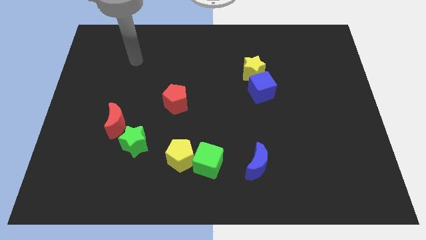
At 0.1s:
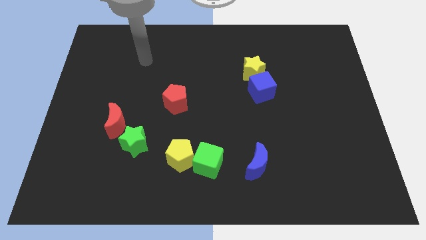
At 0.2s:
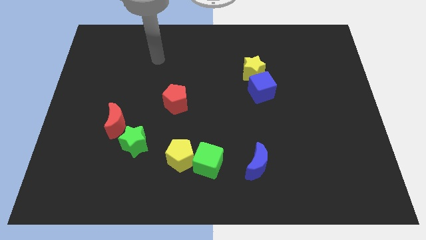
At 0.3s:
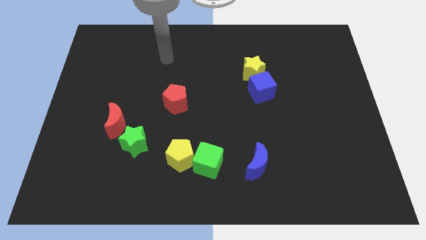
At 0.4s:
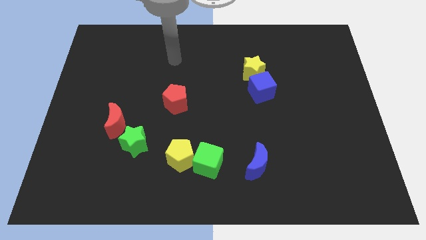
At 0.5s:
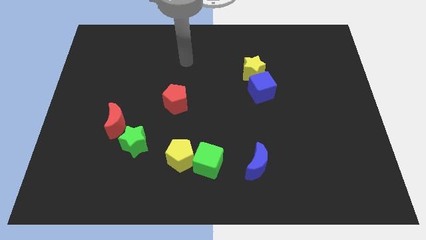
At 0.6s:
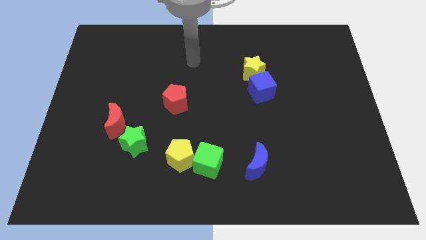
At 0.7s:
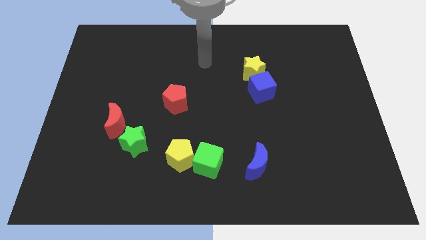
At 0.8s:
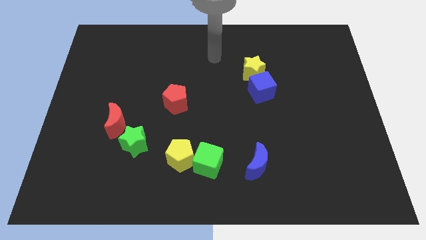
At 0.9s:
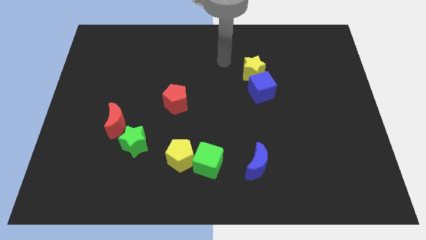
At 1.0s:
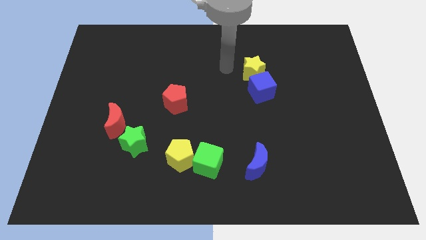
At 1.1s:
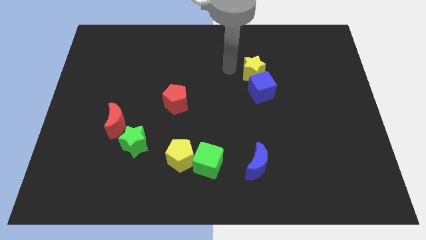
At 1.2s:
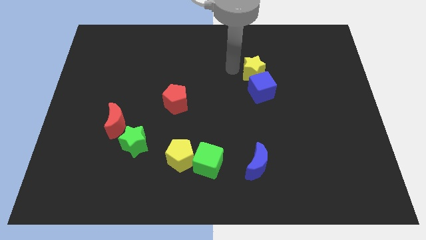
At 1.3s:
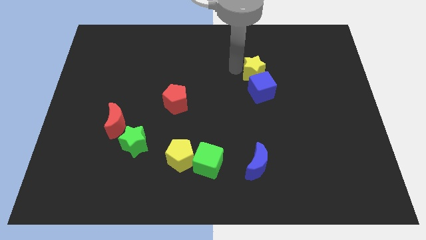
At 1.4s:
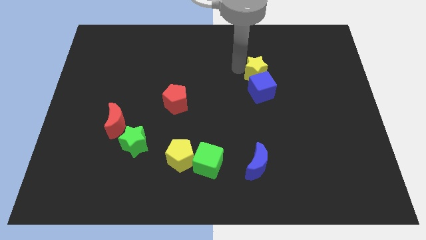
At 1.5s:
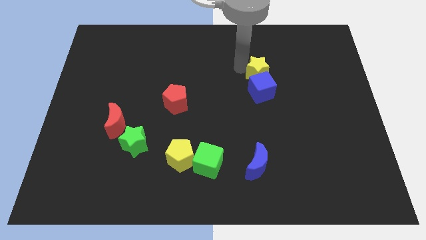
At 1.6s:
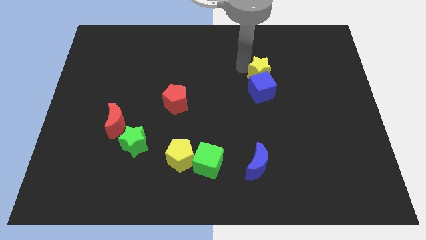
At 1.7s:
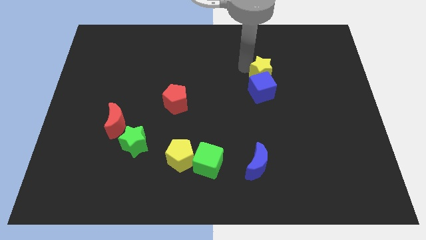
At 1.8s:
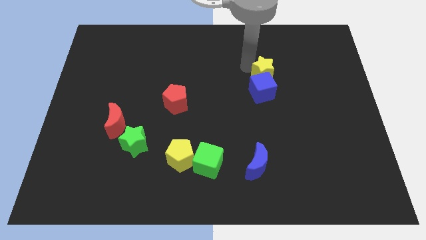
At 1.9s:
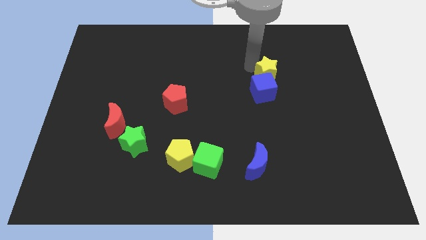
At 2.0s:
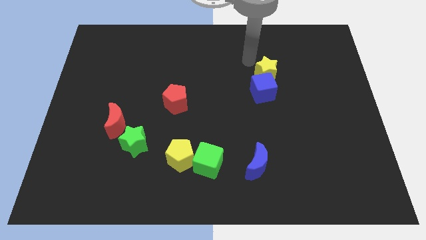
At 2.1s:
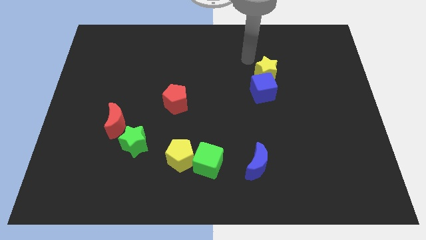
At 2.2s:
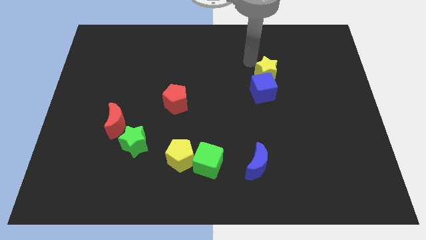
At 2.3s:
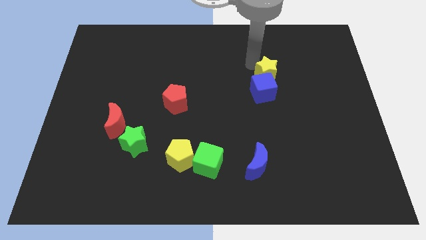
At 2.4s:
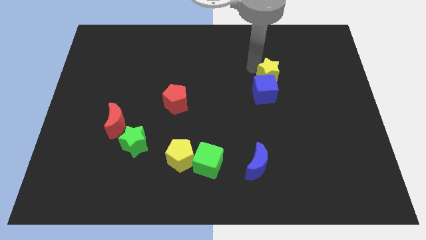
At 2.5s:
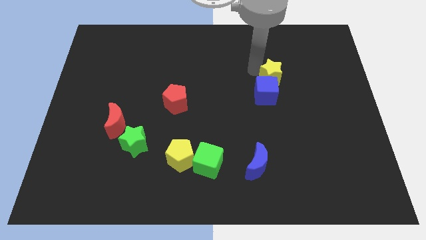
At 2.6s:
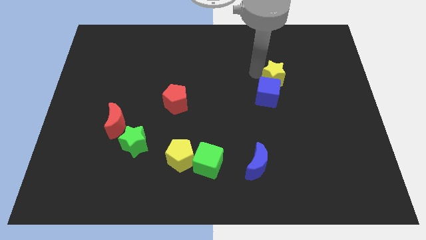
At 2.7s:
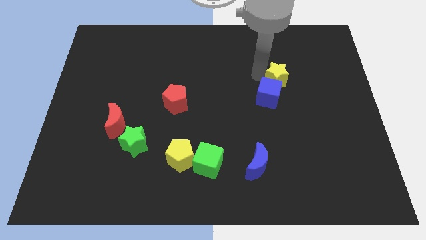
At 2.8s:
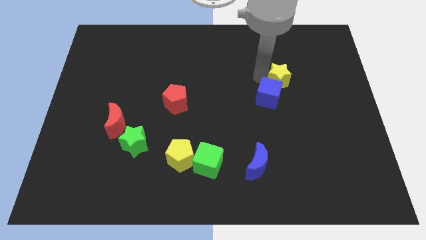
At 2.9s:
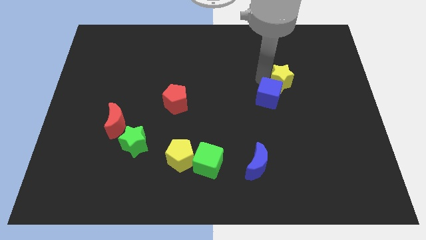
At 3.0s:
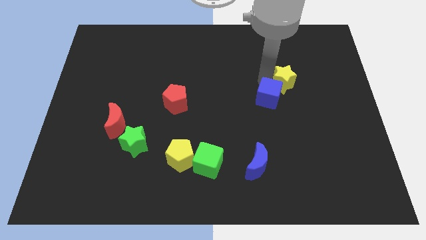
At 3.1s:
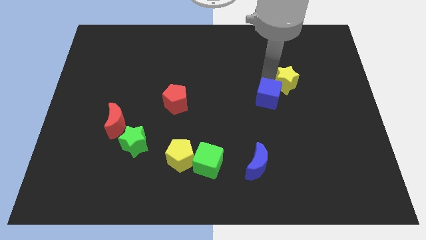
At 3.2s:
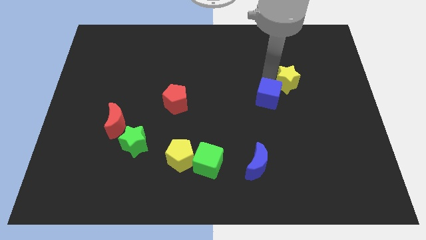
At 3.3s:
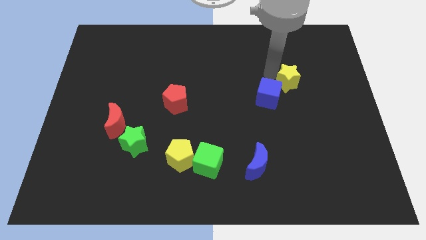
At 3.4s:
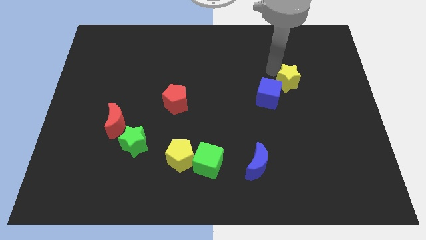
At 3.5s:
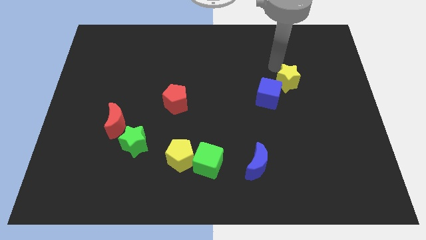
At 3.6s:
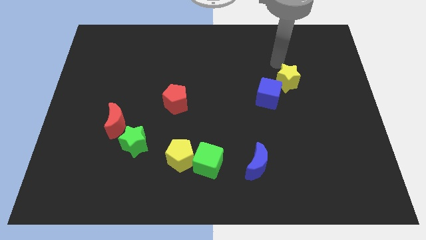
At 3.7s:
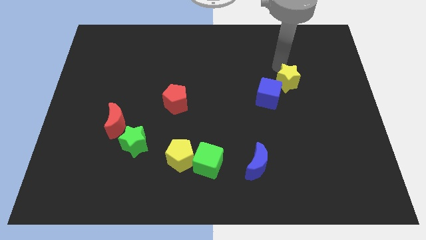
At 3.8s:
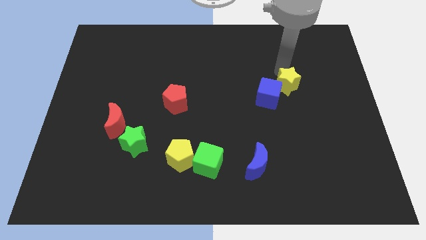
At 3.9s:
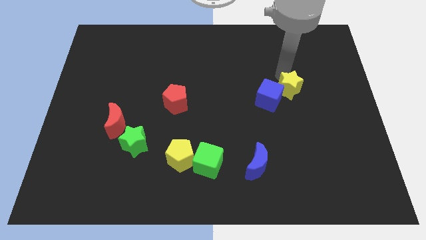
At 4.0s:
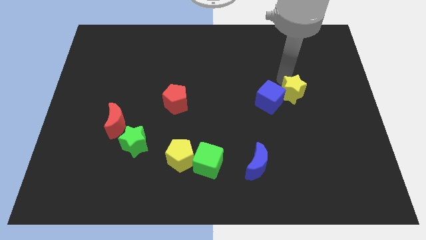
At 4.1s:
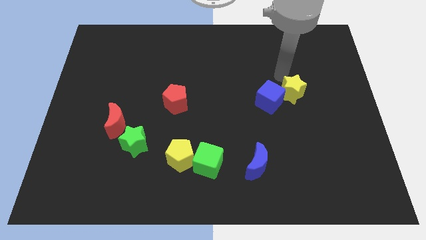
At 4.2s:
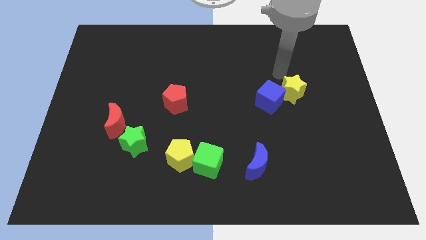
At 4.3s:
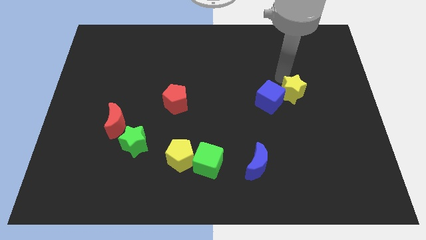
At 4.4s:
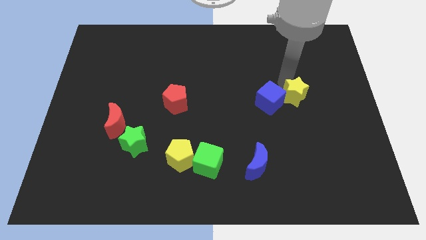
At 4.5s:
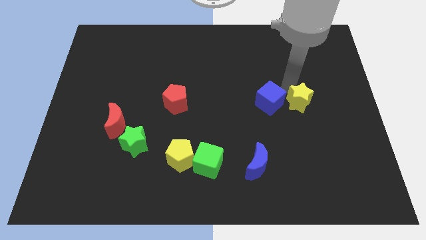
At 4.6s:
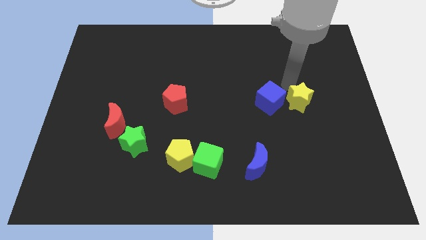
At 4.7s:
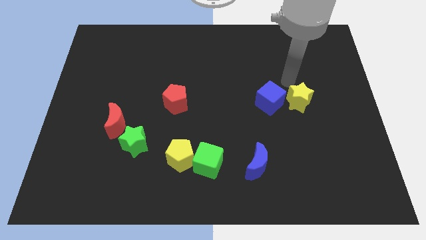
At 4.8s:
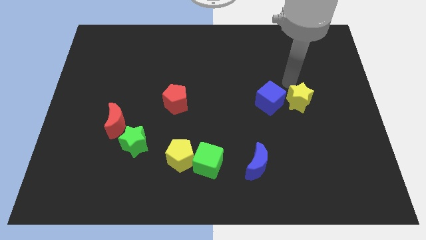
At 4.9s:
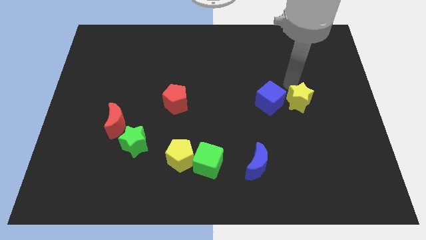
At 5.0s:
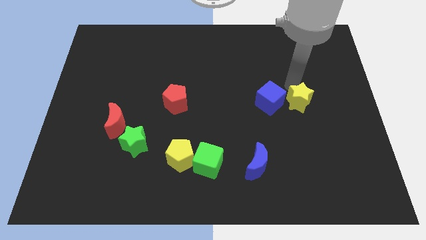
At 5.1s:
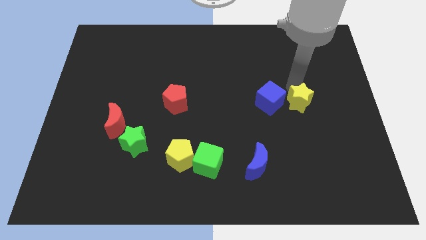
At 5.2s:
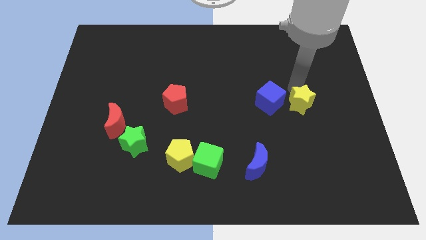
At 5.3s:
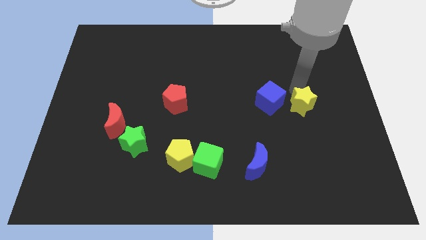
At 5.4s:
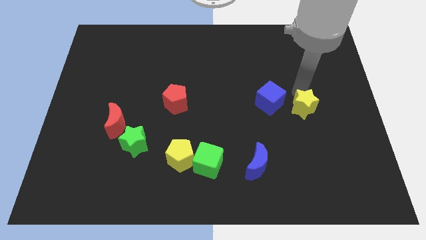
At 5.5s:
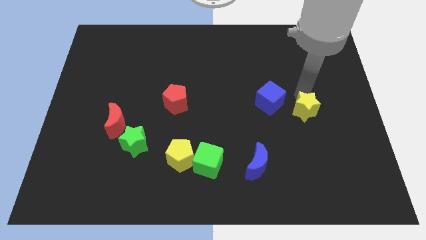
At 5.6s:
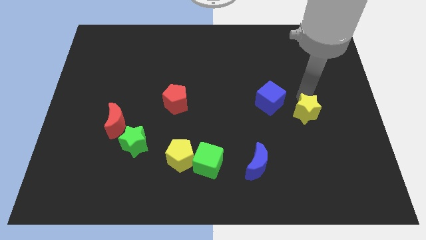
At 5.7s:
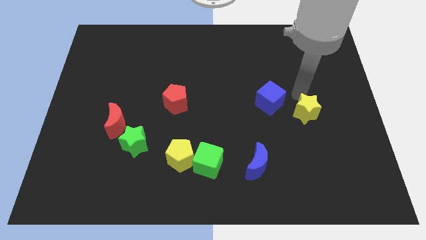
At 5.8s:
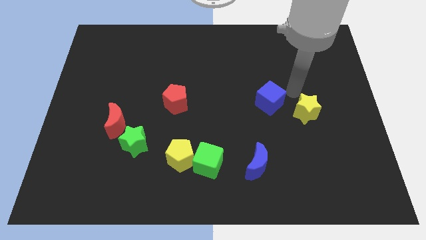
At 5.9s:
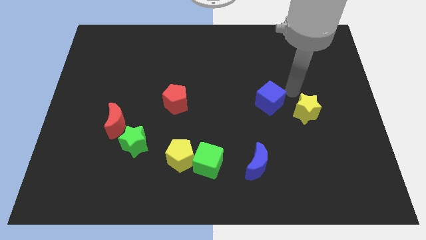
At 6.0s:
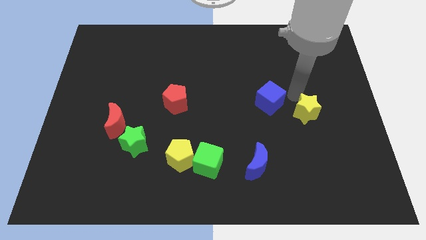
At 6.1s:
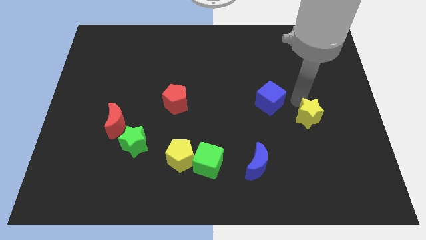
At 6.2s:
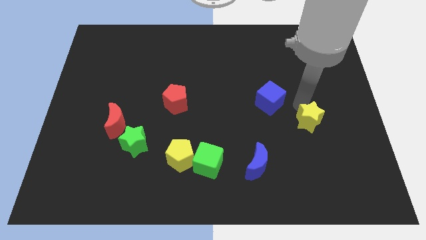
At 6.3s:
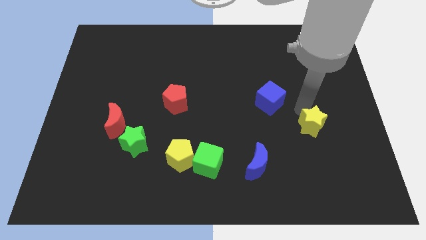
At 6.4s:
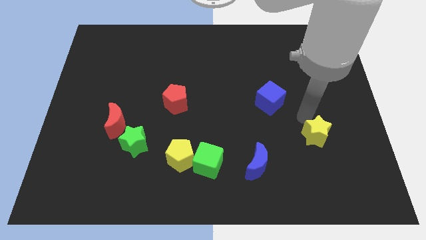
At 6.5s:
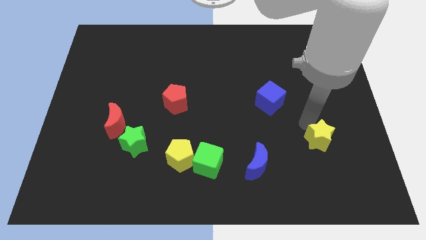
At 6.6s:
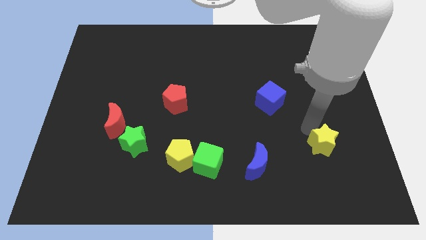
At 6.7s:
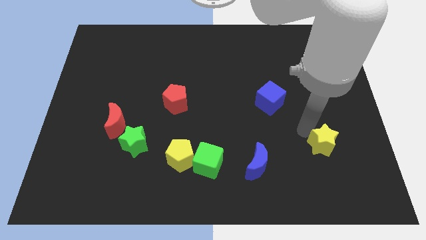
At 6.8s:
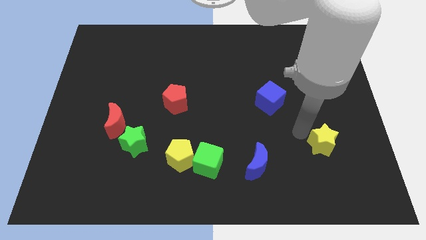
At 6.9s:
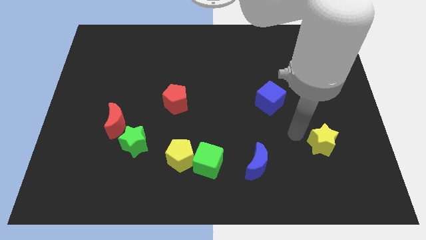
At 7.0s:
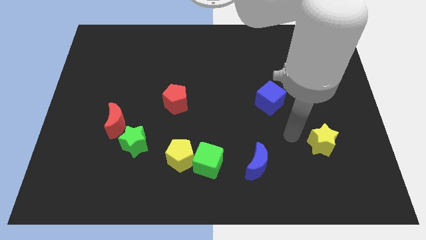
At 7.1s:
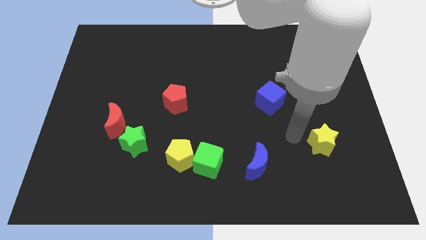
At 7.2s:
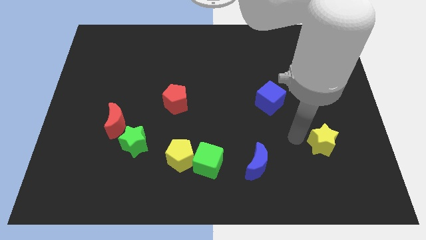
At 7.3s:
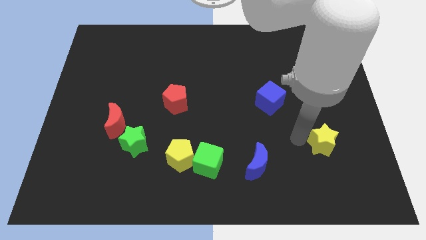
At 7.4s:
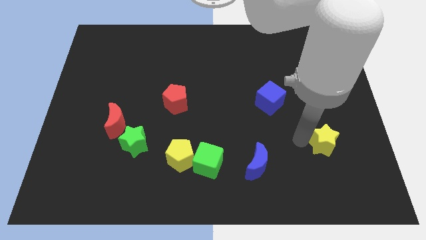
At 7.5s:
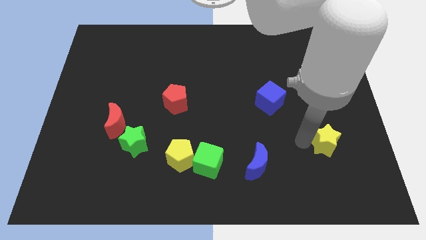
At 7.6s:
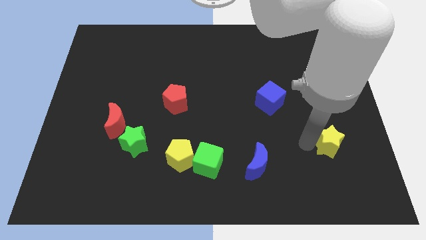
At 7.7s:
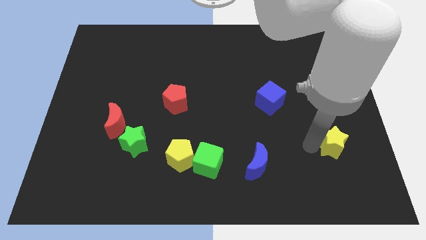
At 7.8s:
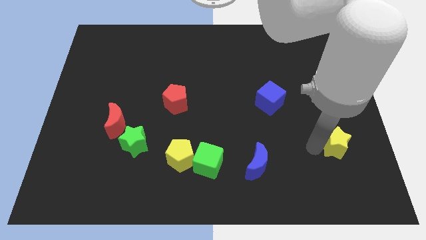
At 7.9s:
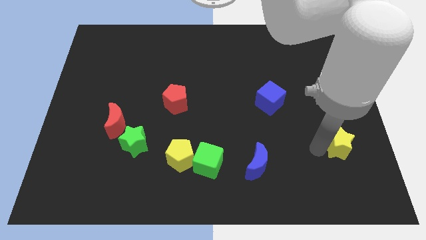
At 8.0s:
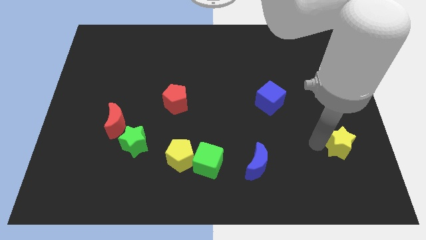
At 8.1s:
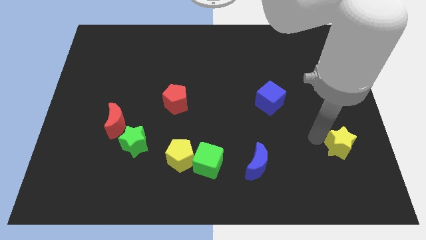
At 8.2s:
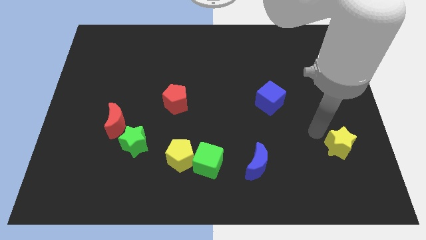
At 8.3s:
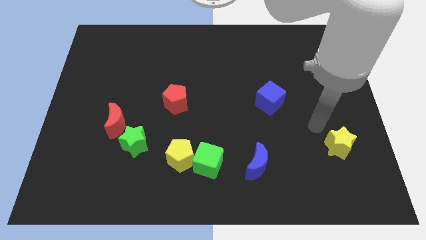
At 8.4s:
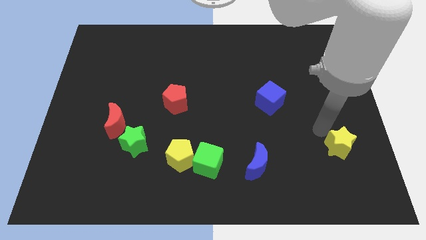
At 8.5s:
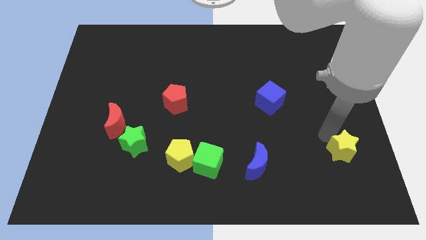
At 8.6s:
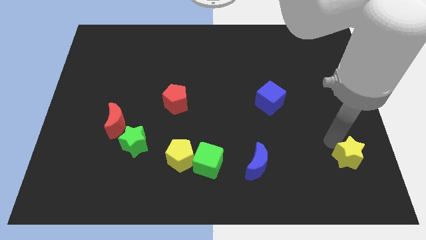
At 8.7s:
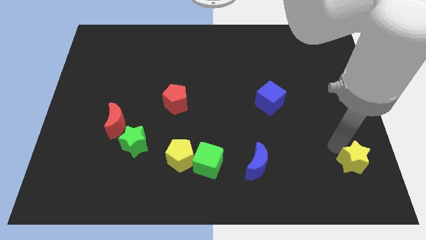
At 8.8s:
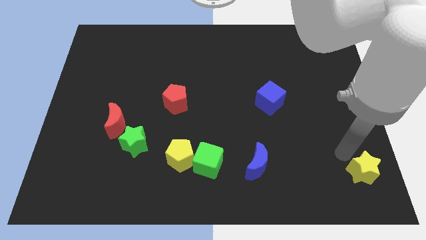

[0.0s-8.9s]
put the yellow star to the bottom right of the board
